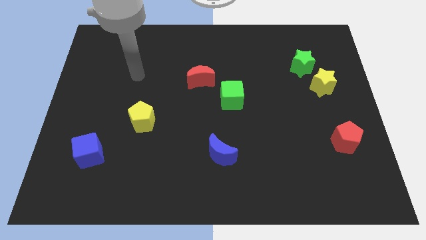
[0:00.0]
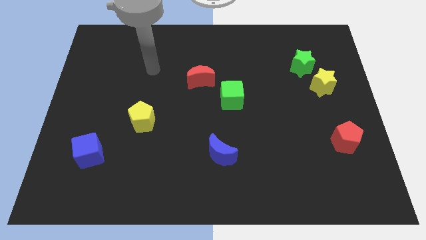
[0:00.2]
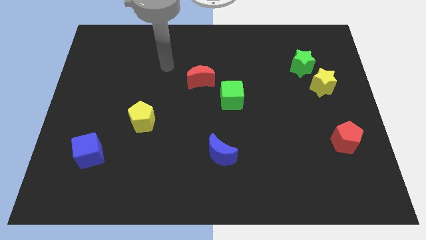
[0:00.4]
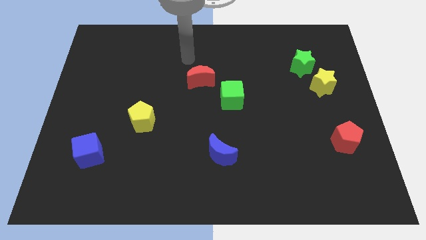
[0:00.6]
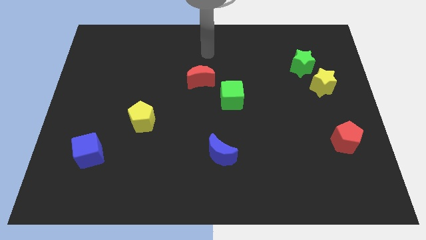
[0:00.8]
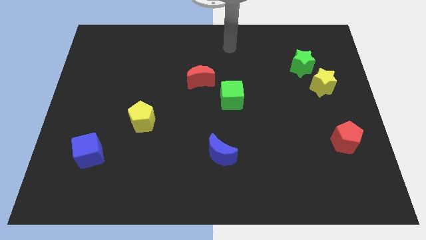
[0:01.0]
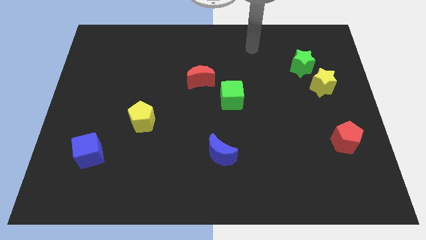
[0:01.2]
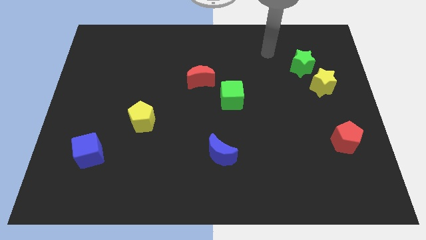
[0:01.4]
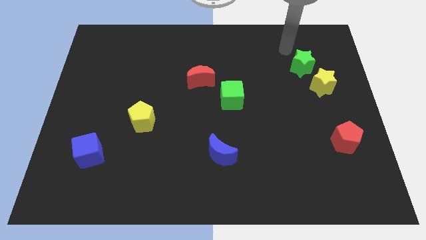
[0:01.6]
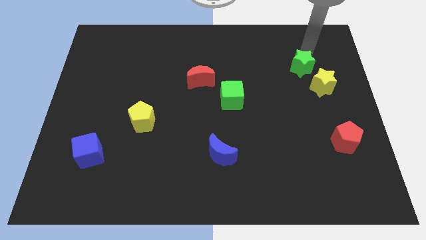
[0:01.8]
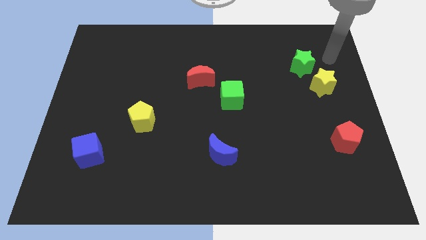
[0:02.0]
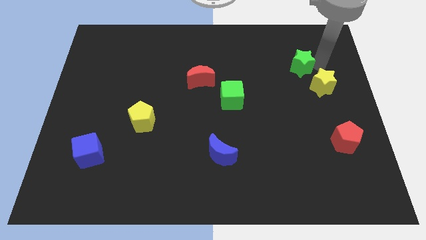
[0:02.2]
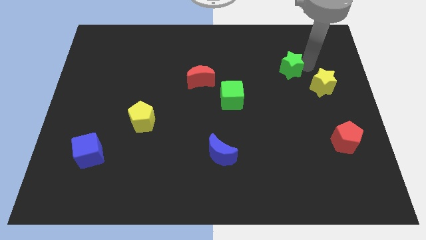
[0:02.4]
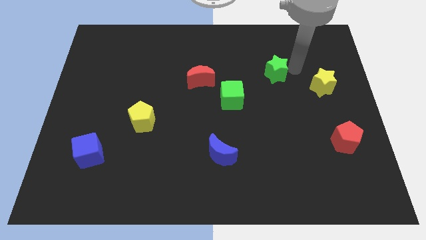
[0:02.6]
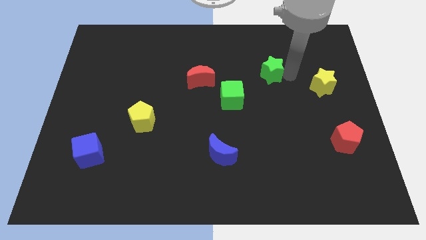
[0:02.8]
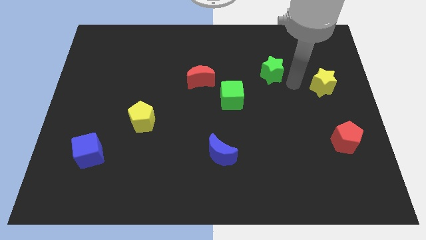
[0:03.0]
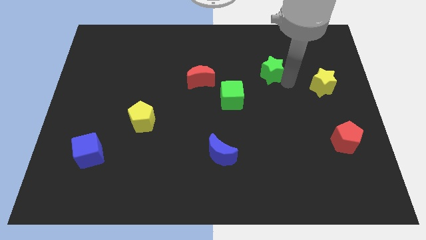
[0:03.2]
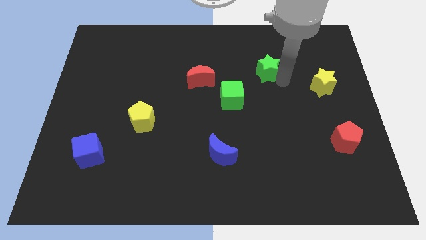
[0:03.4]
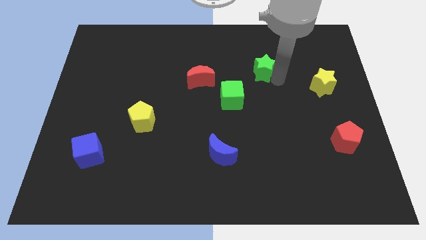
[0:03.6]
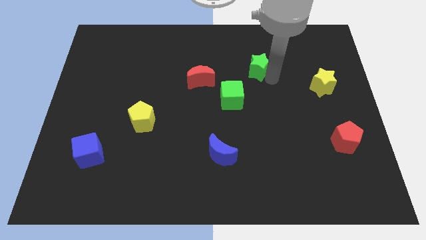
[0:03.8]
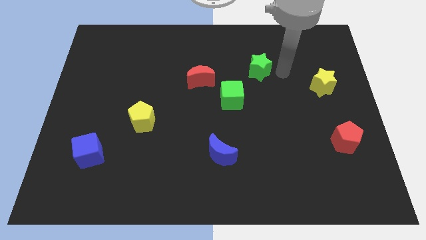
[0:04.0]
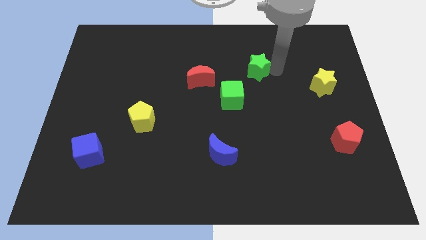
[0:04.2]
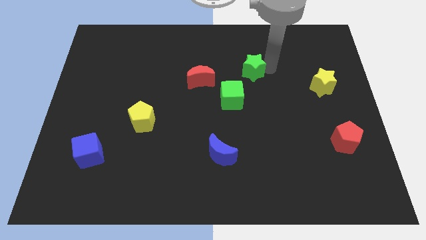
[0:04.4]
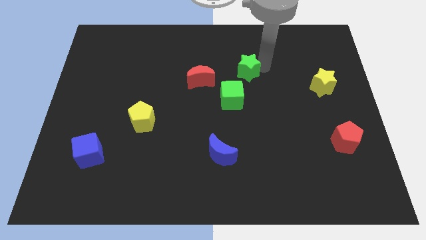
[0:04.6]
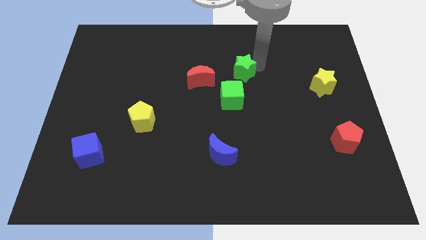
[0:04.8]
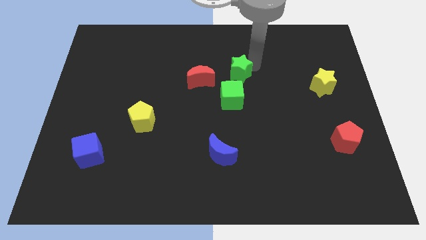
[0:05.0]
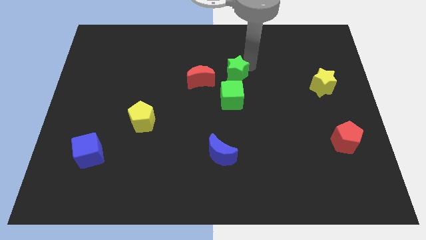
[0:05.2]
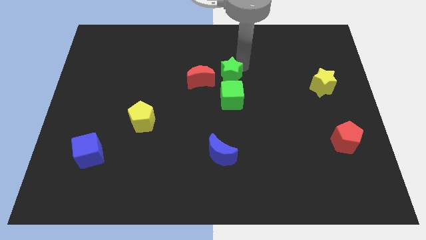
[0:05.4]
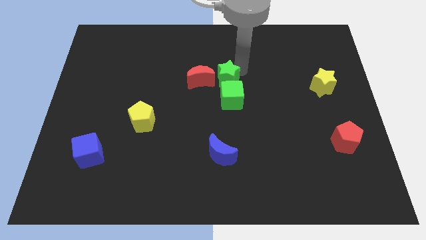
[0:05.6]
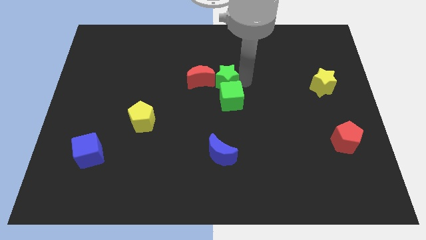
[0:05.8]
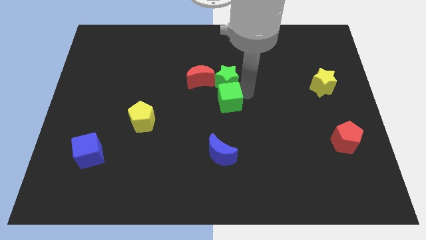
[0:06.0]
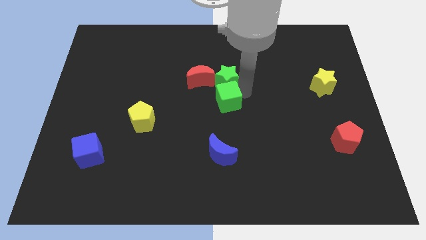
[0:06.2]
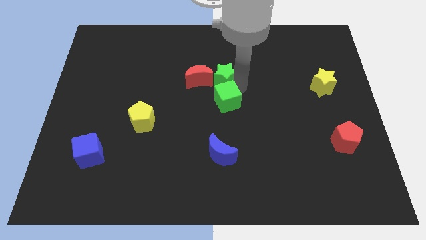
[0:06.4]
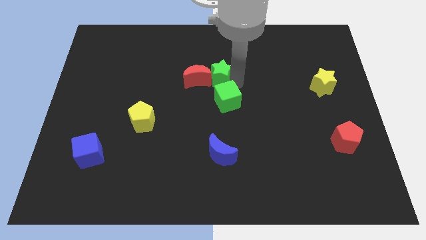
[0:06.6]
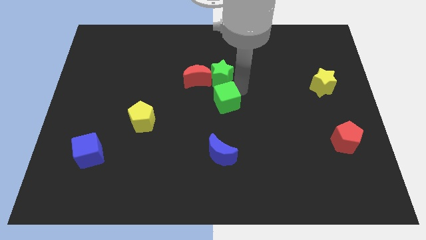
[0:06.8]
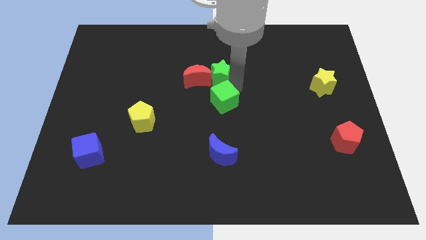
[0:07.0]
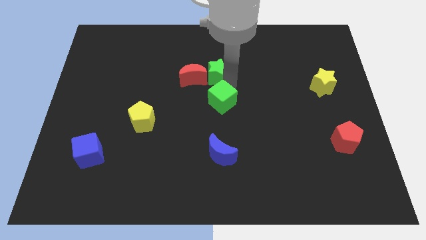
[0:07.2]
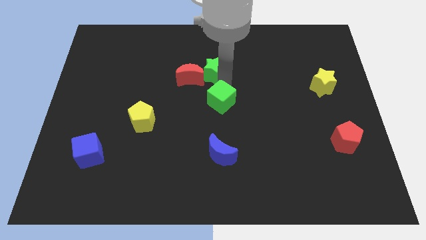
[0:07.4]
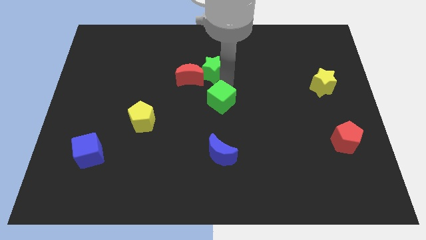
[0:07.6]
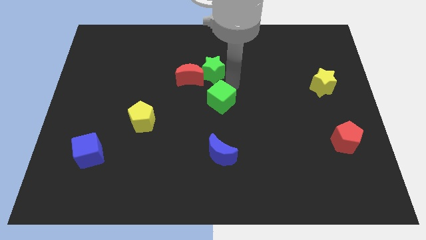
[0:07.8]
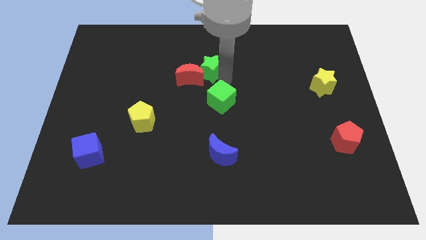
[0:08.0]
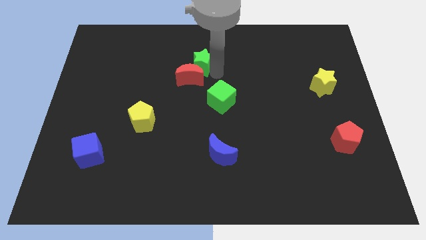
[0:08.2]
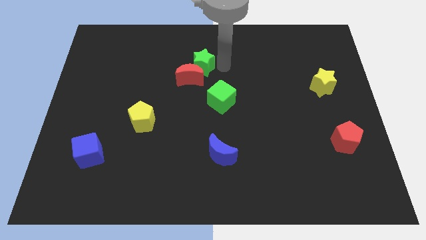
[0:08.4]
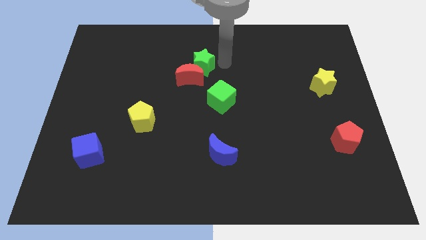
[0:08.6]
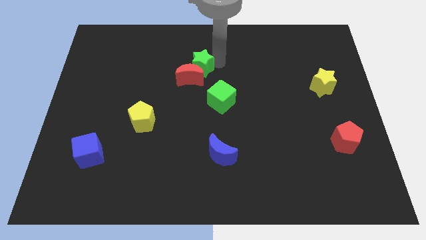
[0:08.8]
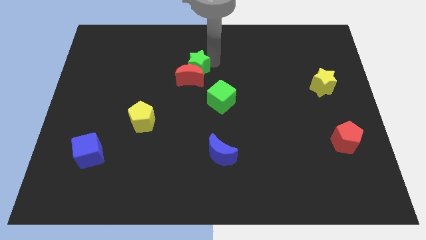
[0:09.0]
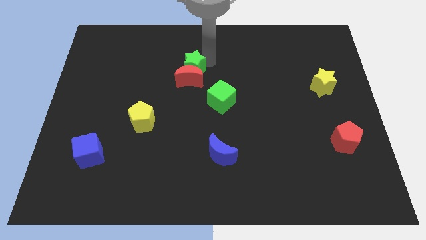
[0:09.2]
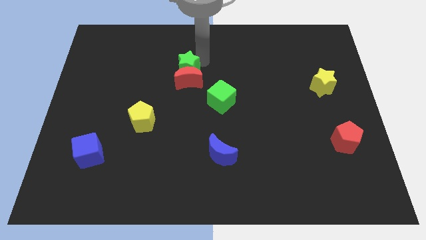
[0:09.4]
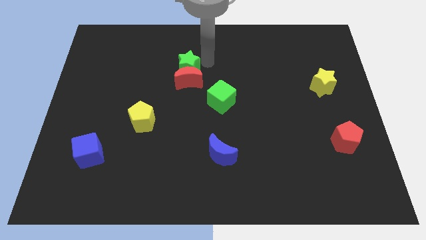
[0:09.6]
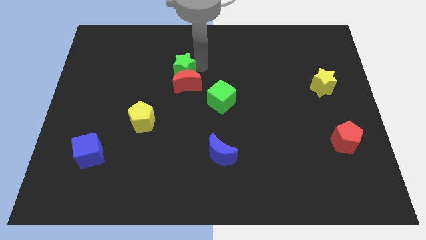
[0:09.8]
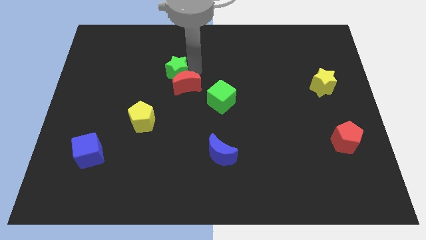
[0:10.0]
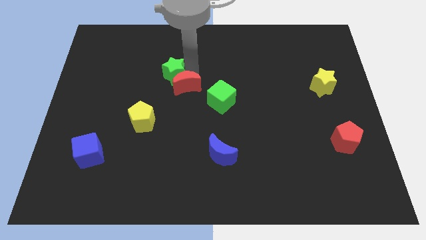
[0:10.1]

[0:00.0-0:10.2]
push the green star to the left of the red moon

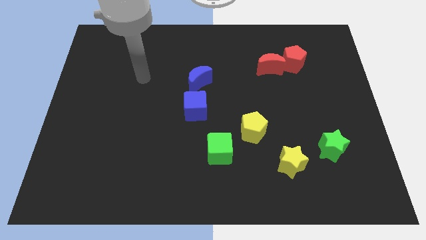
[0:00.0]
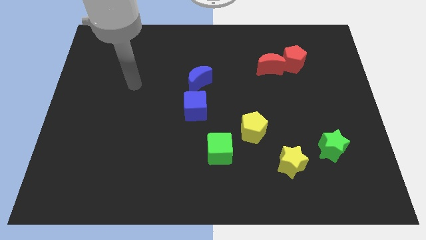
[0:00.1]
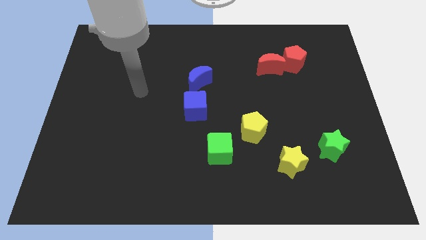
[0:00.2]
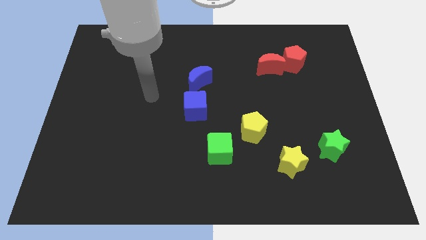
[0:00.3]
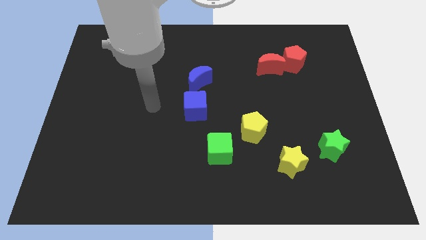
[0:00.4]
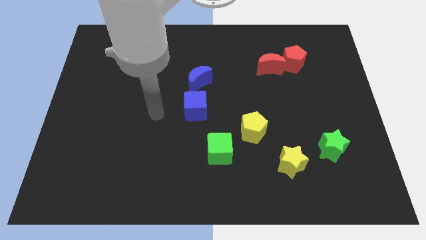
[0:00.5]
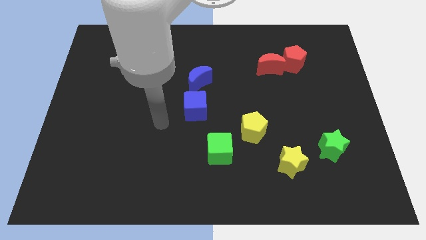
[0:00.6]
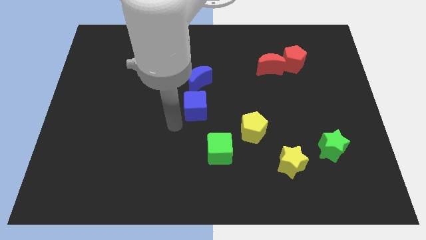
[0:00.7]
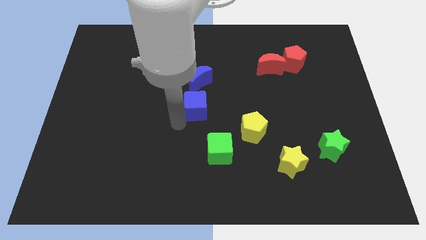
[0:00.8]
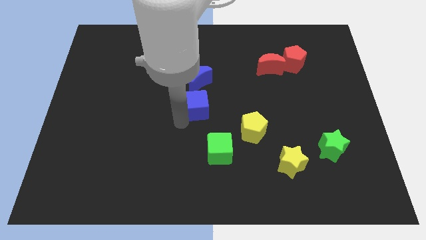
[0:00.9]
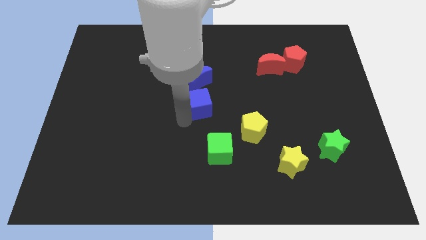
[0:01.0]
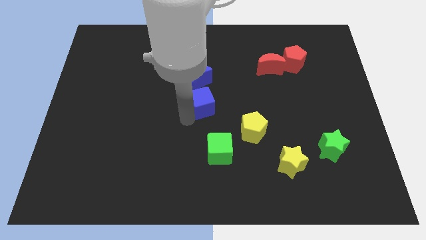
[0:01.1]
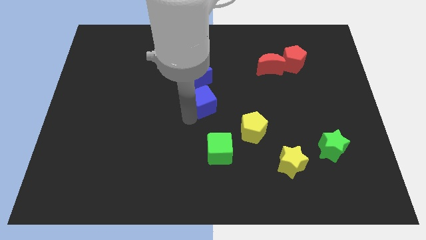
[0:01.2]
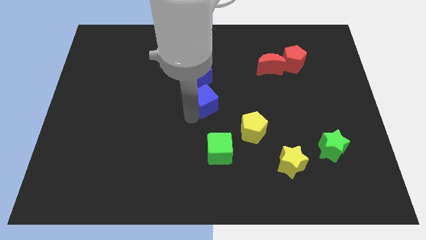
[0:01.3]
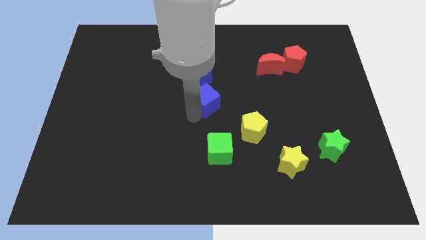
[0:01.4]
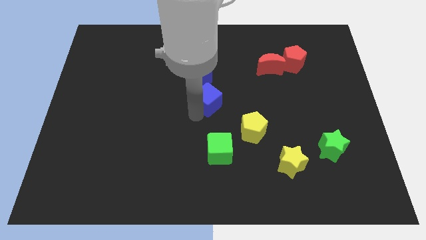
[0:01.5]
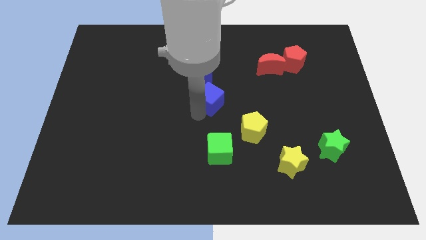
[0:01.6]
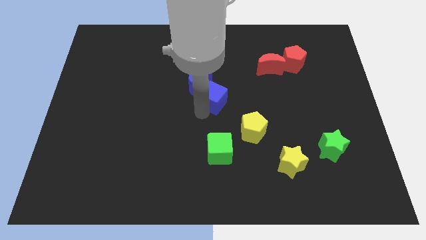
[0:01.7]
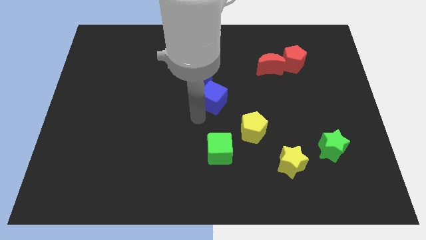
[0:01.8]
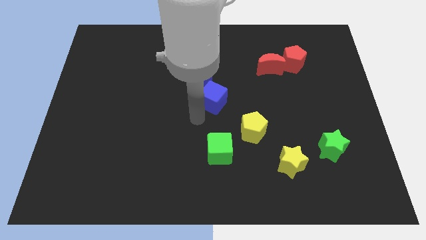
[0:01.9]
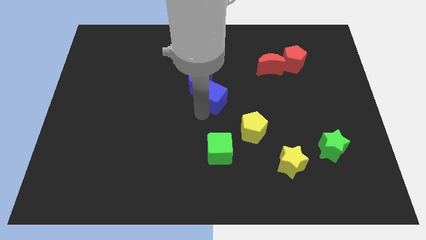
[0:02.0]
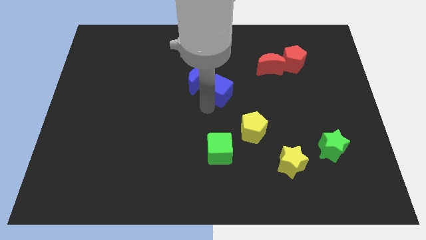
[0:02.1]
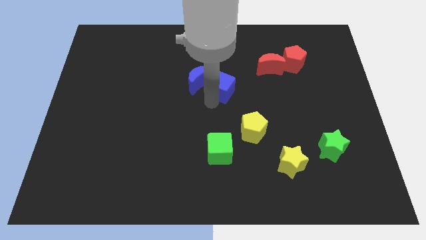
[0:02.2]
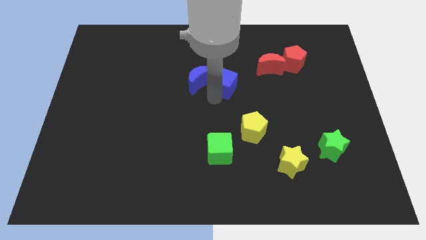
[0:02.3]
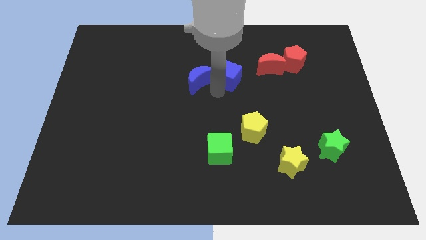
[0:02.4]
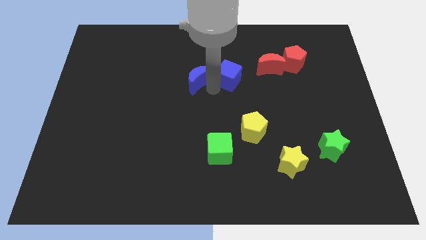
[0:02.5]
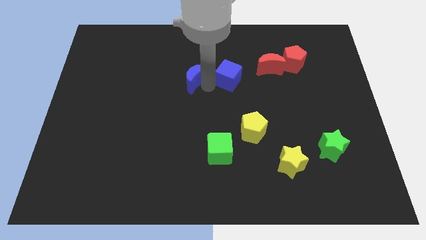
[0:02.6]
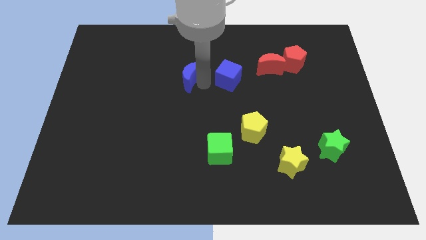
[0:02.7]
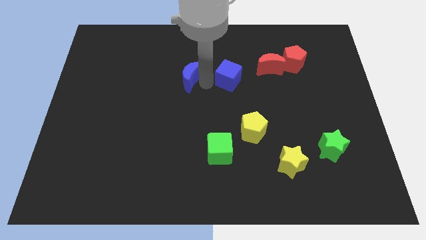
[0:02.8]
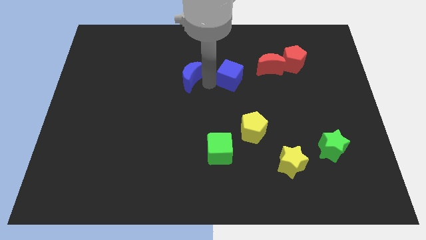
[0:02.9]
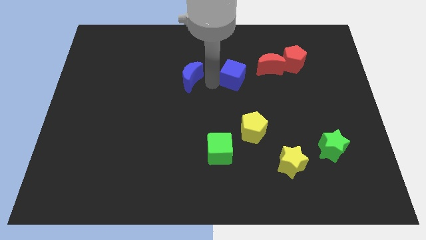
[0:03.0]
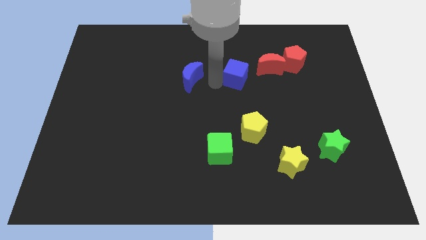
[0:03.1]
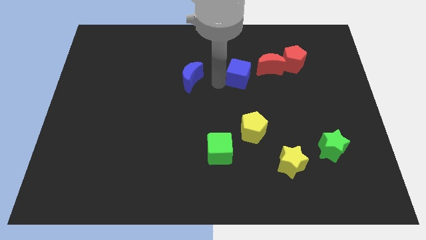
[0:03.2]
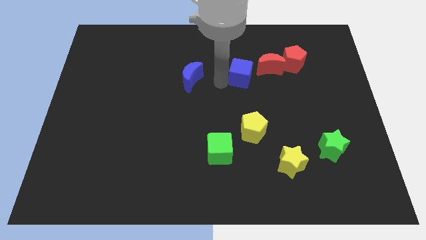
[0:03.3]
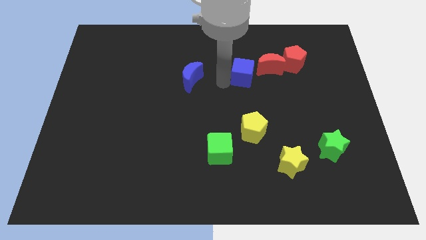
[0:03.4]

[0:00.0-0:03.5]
push the blue cube to the left side of the red pentagon
